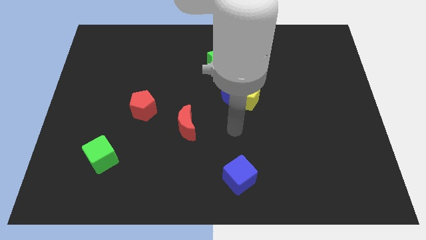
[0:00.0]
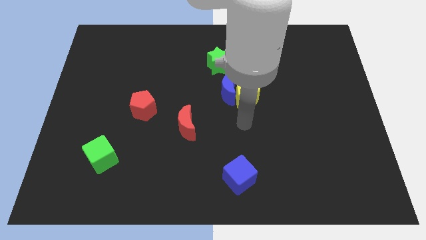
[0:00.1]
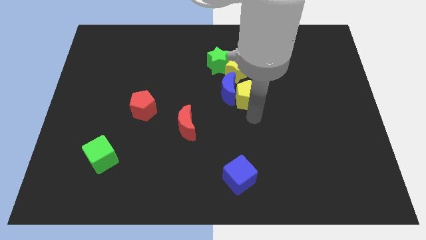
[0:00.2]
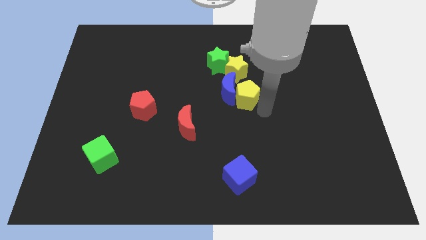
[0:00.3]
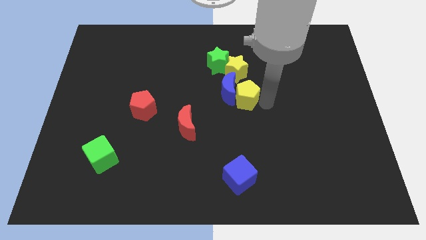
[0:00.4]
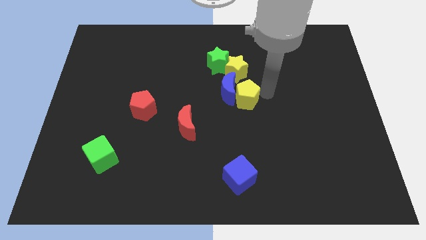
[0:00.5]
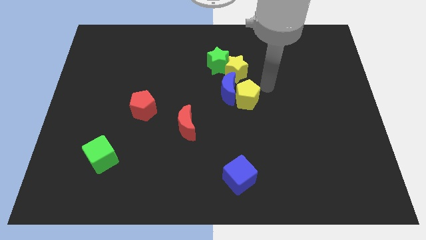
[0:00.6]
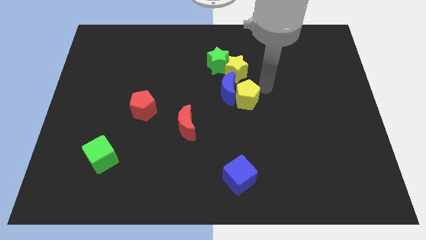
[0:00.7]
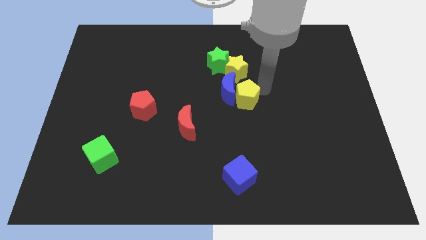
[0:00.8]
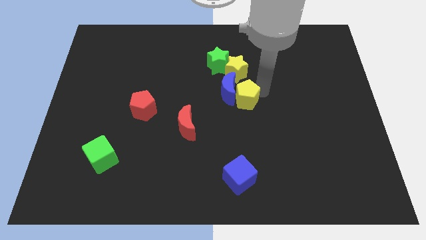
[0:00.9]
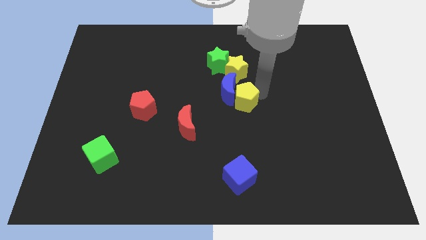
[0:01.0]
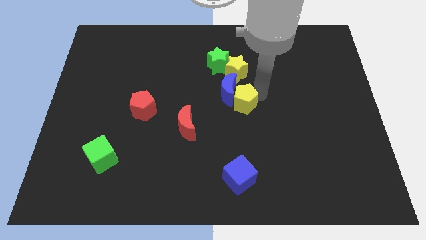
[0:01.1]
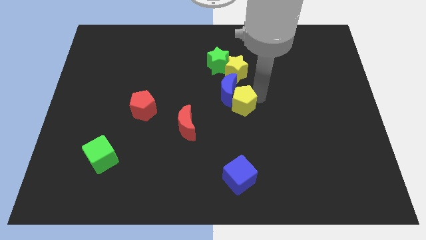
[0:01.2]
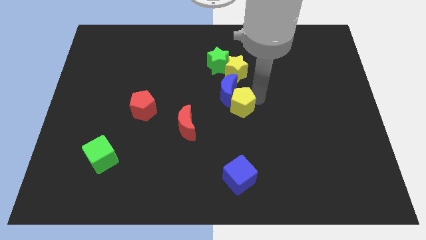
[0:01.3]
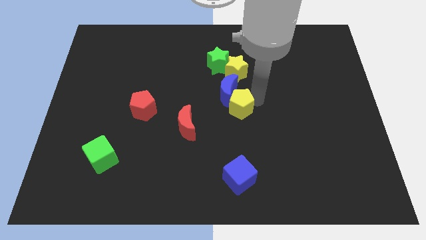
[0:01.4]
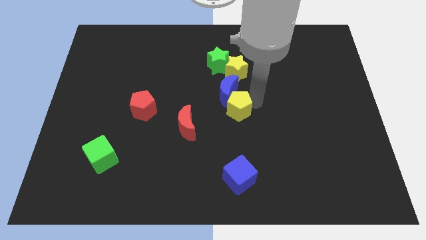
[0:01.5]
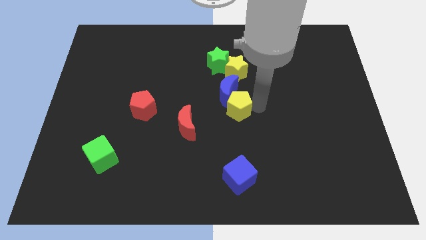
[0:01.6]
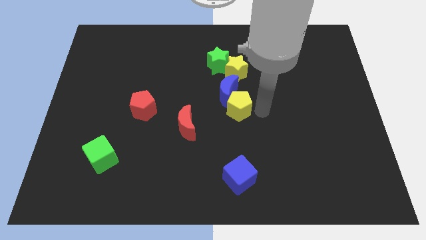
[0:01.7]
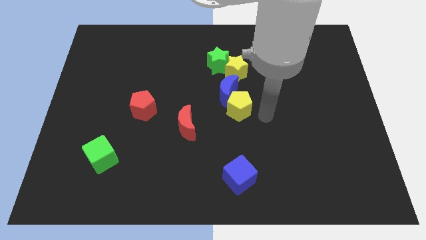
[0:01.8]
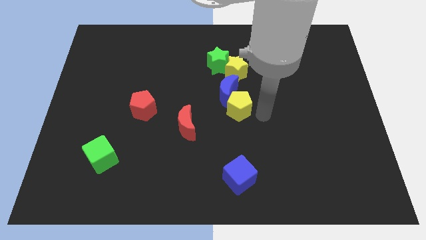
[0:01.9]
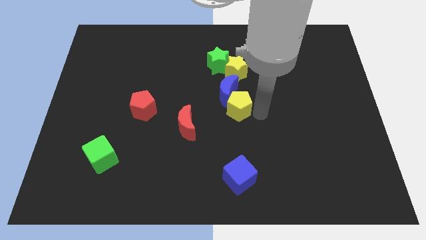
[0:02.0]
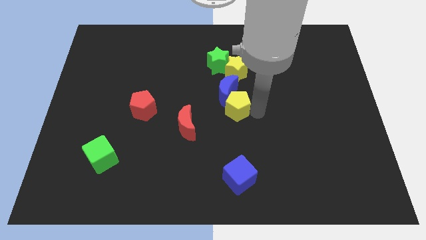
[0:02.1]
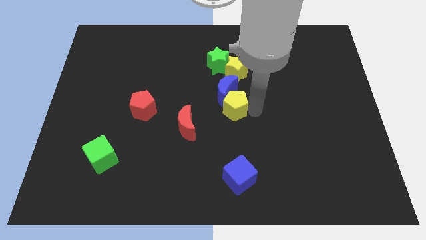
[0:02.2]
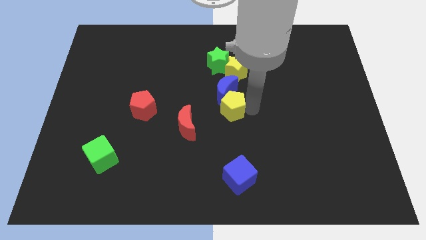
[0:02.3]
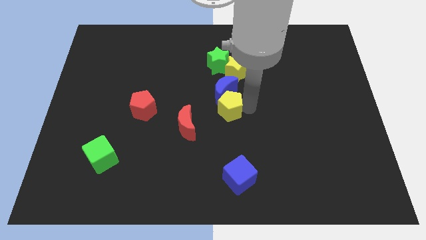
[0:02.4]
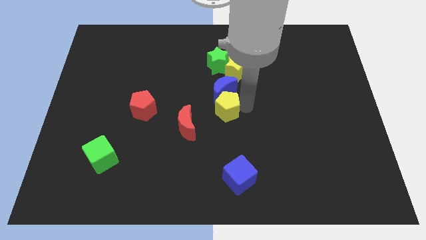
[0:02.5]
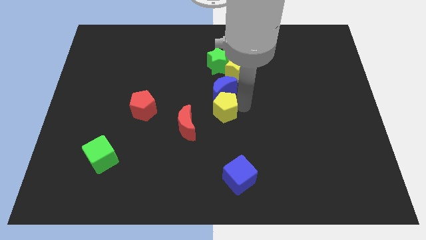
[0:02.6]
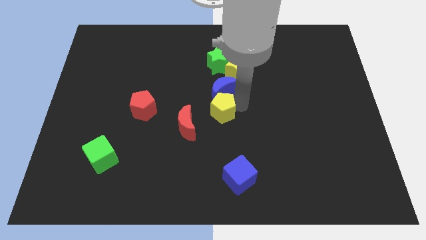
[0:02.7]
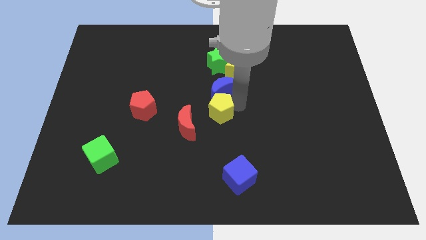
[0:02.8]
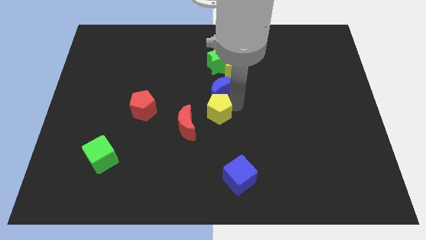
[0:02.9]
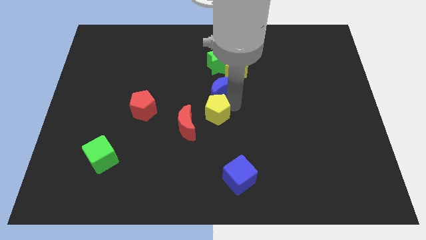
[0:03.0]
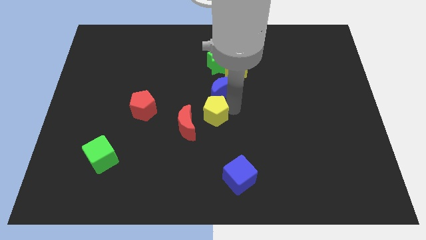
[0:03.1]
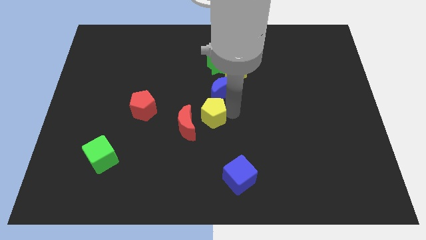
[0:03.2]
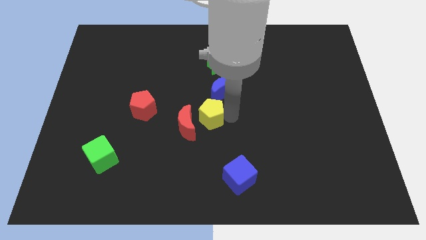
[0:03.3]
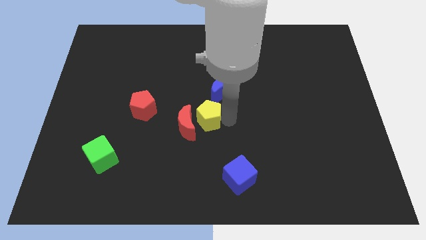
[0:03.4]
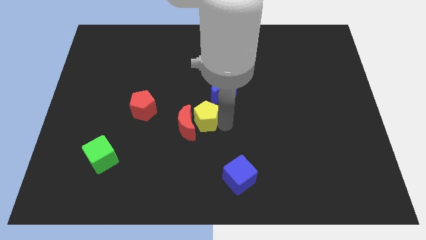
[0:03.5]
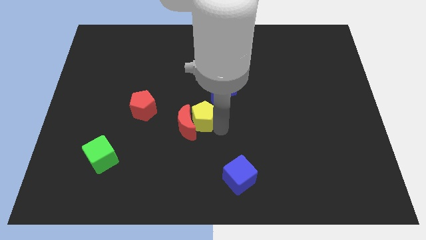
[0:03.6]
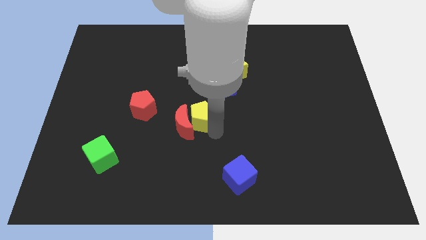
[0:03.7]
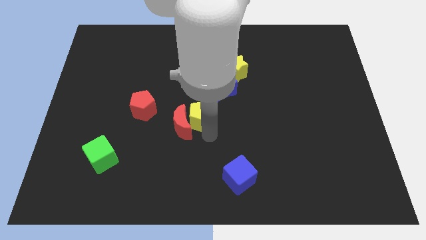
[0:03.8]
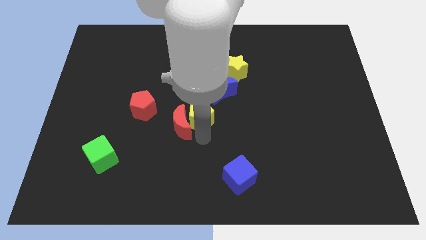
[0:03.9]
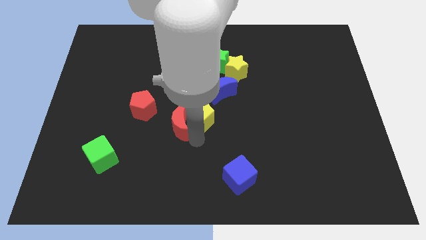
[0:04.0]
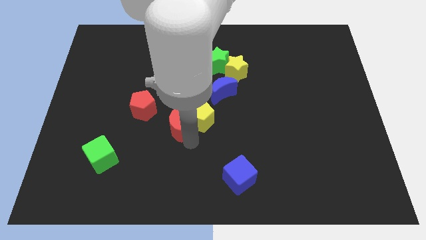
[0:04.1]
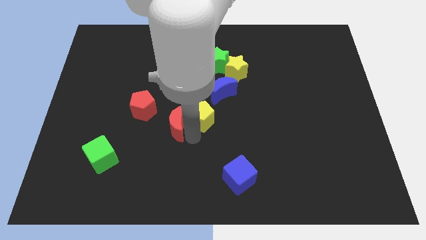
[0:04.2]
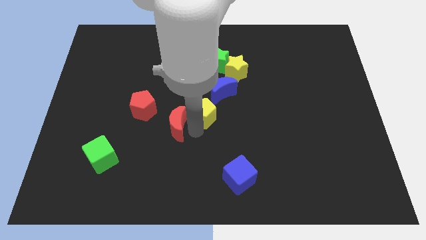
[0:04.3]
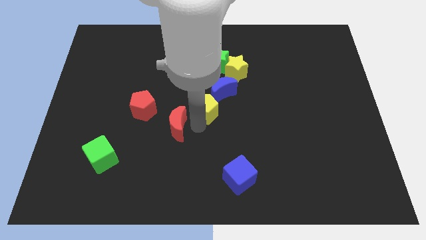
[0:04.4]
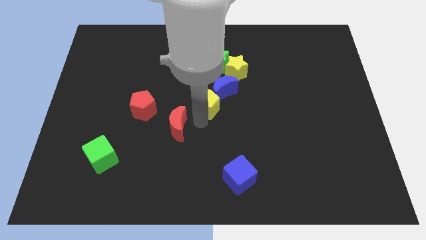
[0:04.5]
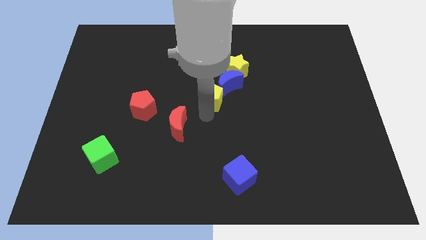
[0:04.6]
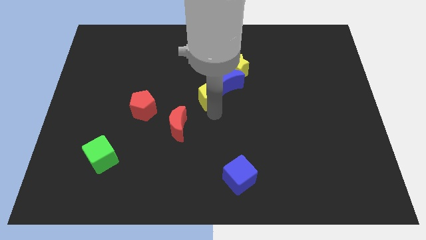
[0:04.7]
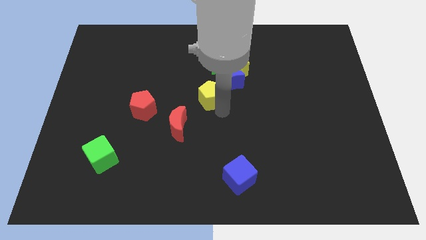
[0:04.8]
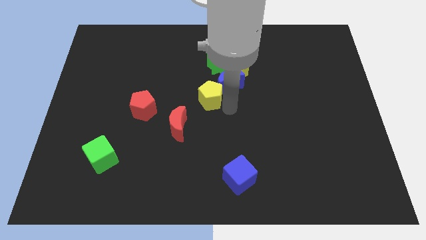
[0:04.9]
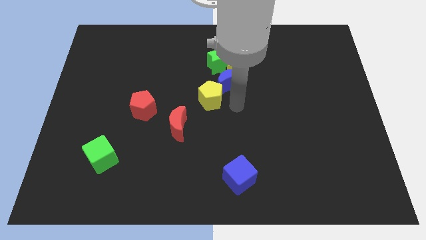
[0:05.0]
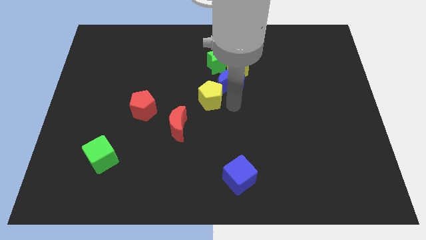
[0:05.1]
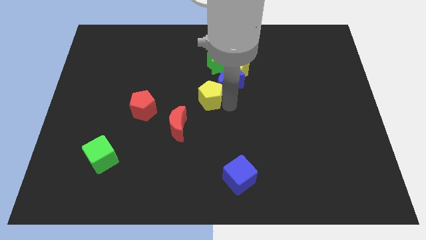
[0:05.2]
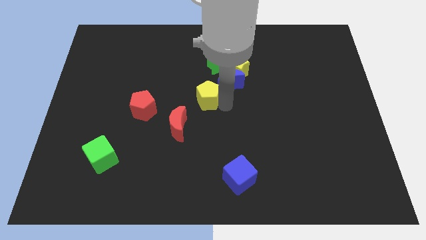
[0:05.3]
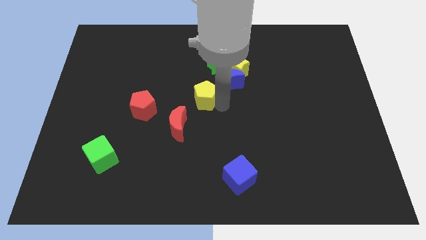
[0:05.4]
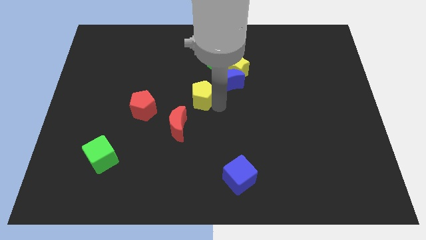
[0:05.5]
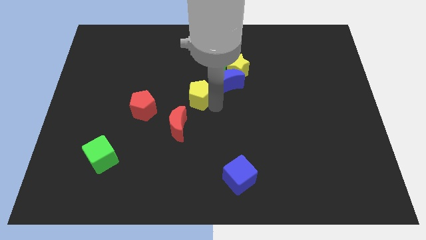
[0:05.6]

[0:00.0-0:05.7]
slide the yellow pentagon to the top side of the red moon

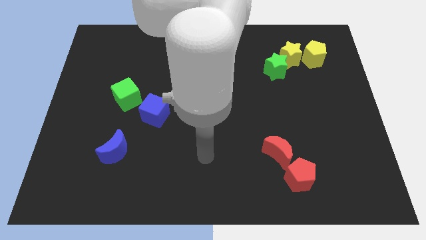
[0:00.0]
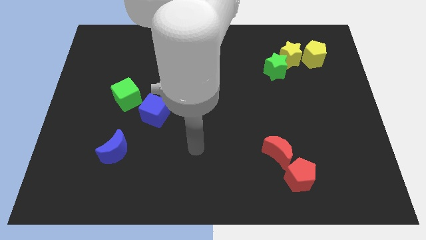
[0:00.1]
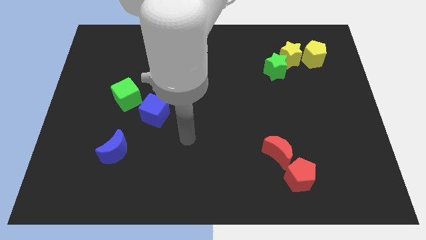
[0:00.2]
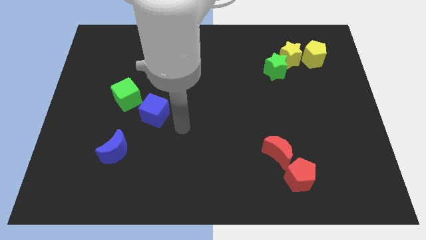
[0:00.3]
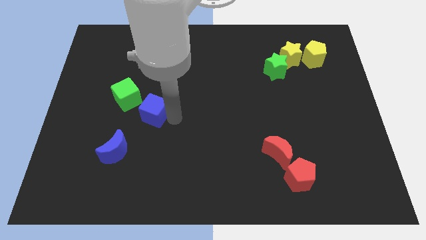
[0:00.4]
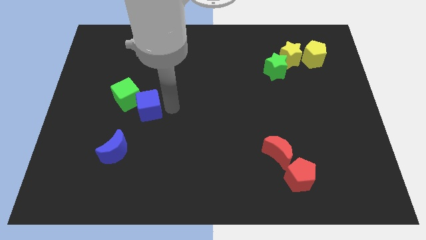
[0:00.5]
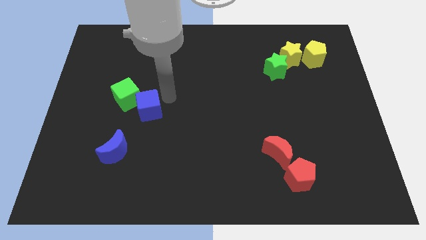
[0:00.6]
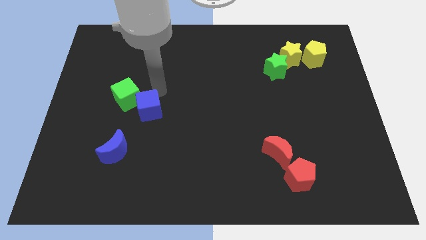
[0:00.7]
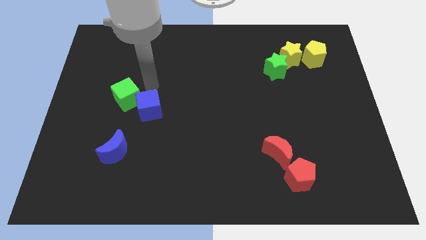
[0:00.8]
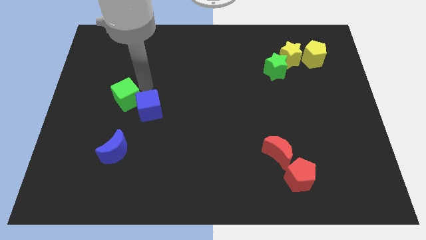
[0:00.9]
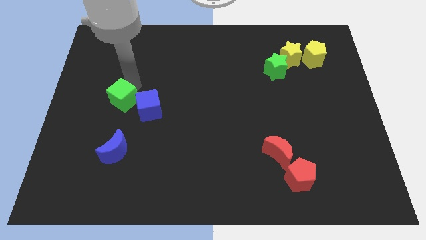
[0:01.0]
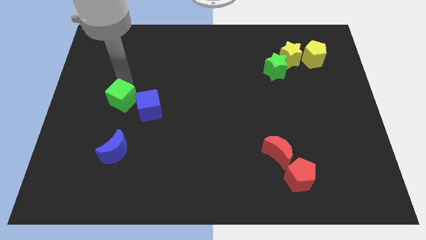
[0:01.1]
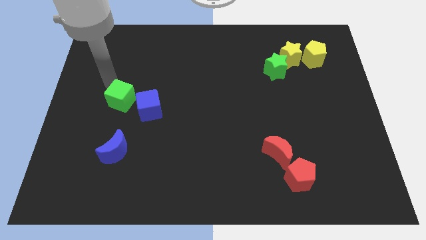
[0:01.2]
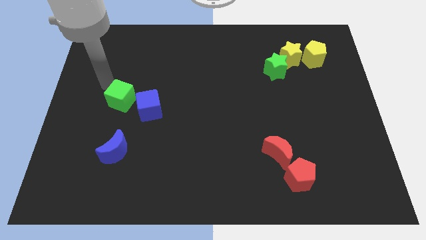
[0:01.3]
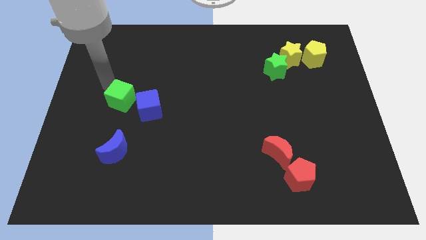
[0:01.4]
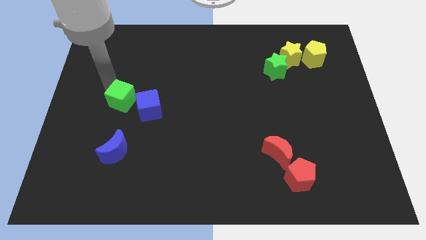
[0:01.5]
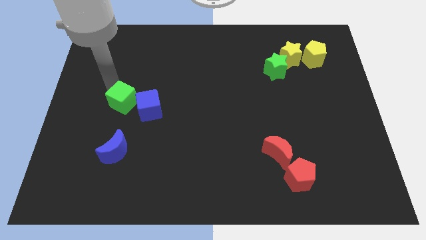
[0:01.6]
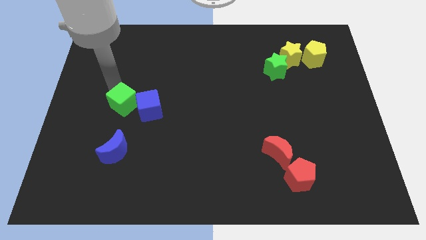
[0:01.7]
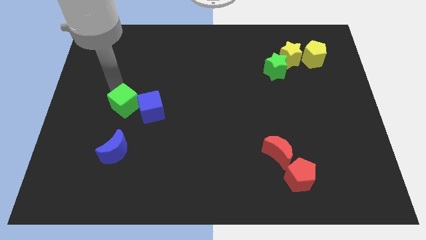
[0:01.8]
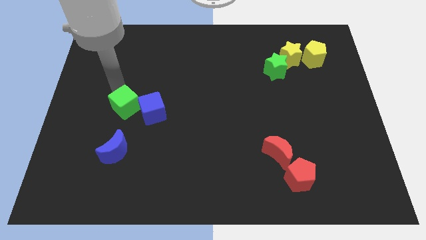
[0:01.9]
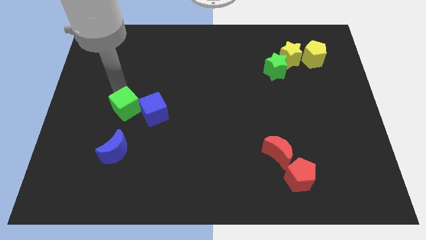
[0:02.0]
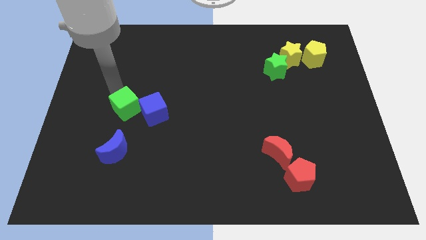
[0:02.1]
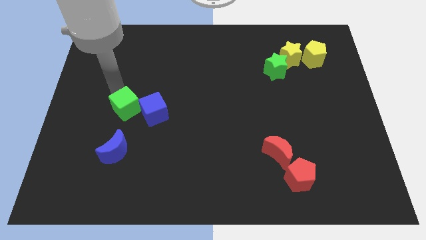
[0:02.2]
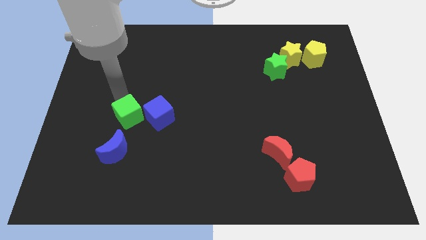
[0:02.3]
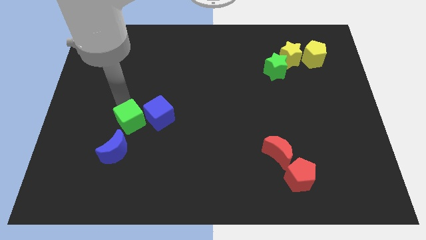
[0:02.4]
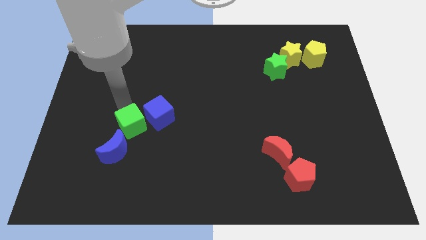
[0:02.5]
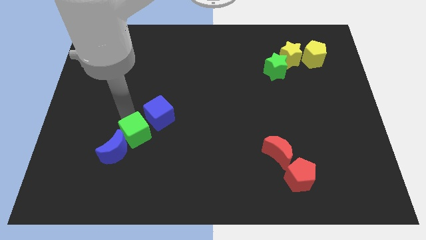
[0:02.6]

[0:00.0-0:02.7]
push the green cube to the bottom of the blue cube
